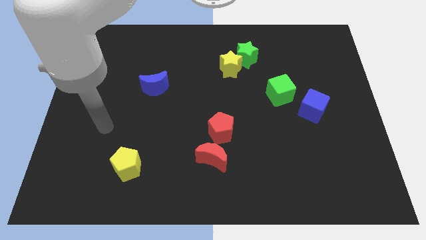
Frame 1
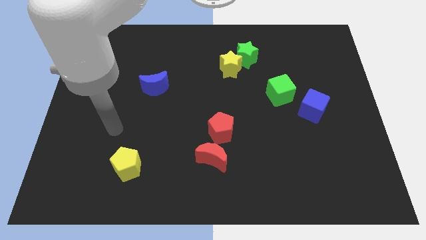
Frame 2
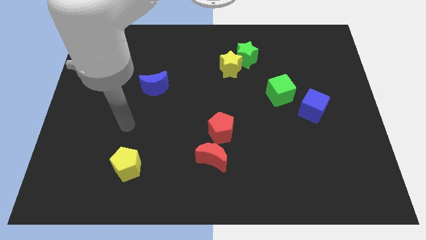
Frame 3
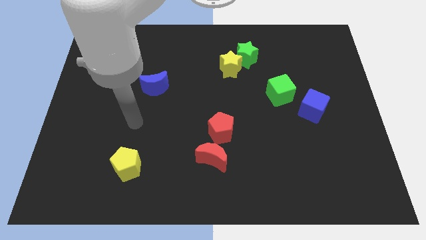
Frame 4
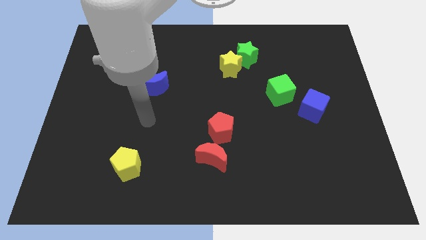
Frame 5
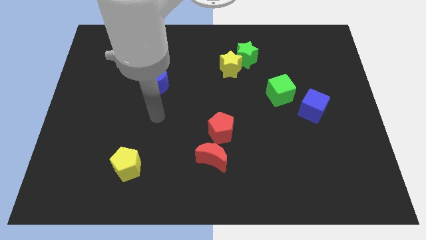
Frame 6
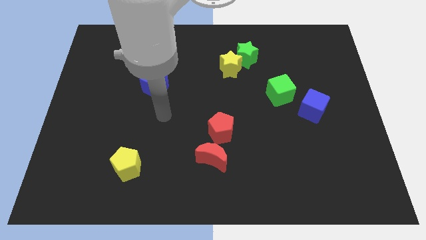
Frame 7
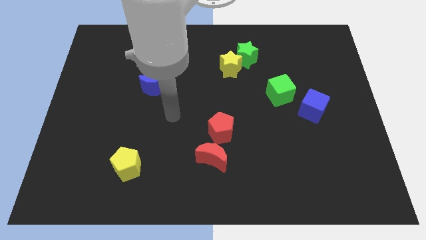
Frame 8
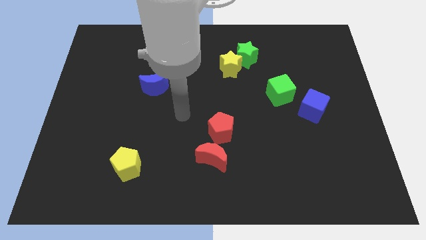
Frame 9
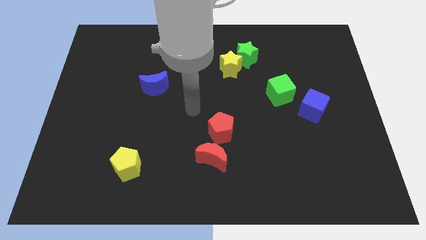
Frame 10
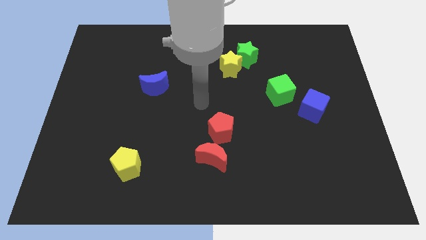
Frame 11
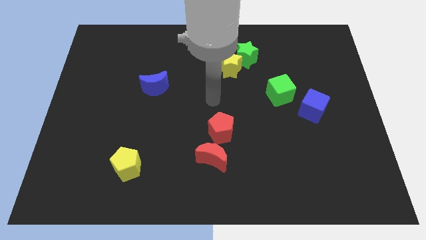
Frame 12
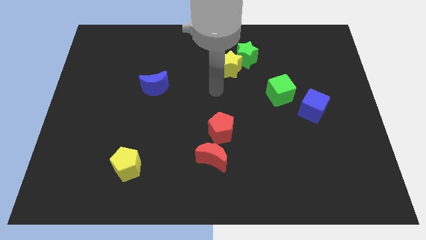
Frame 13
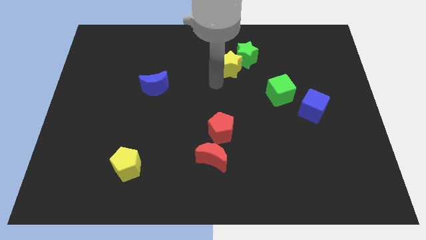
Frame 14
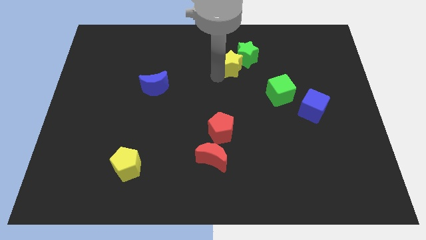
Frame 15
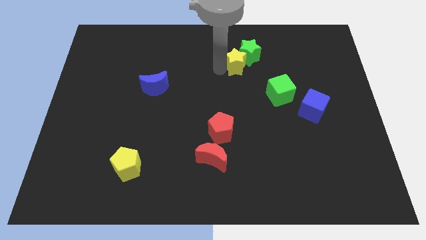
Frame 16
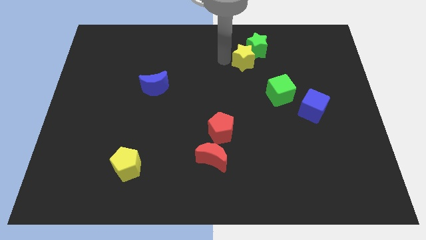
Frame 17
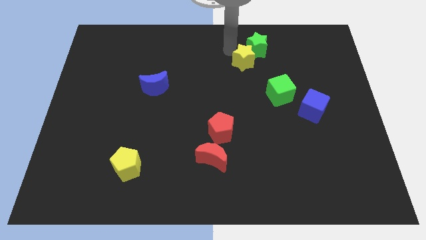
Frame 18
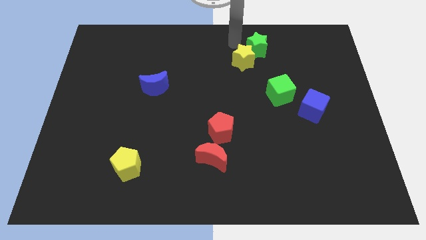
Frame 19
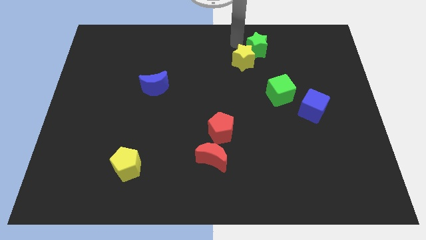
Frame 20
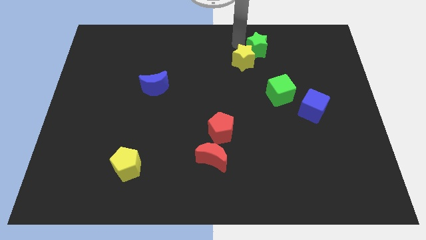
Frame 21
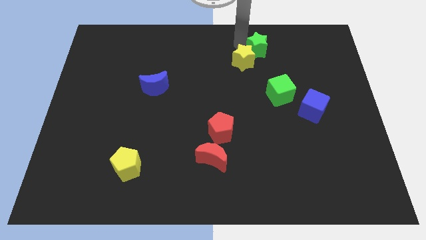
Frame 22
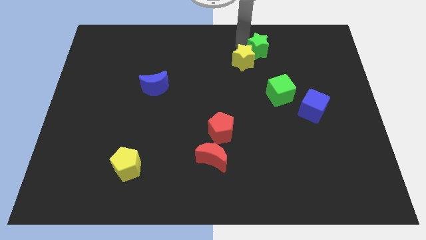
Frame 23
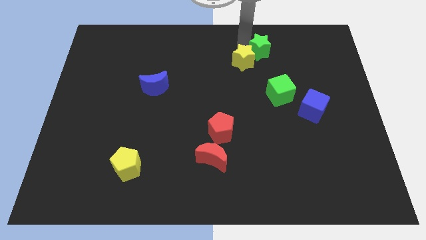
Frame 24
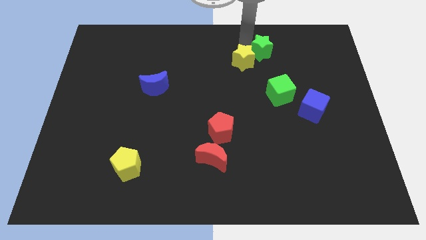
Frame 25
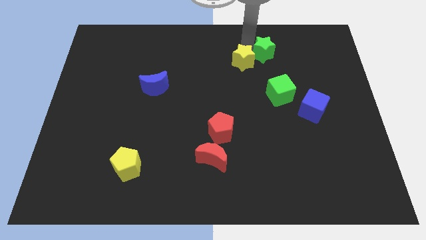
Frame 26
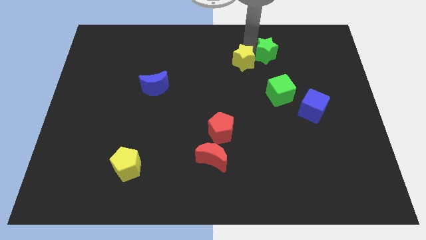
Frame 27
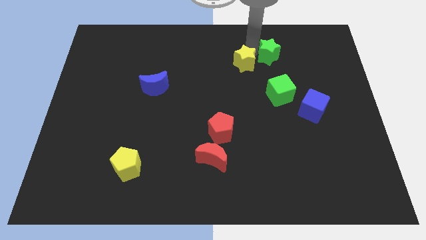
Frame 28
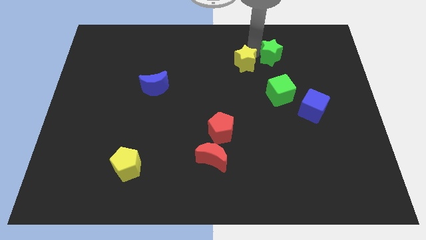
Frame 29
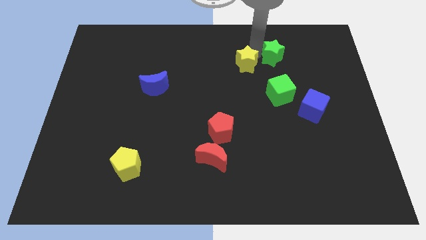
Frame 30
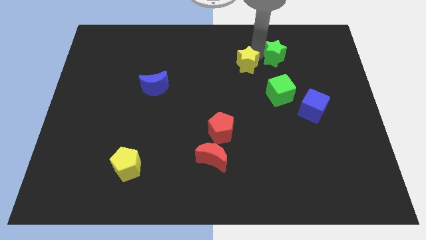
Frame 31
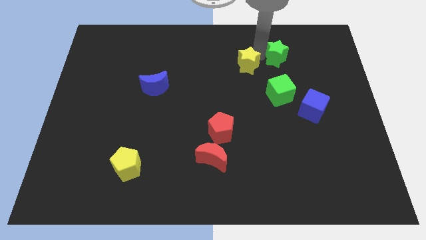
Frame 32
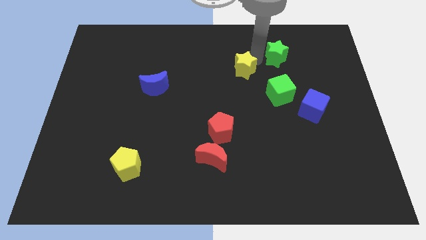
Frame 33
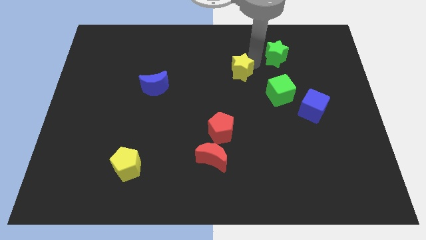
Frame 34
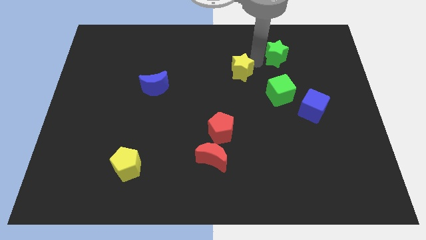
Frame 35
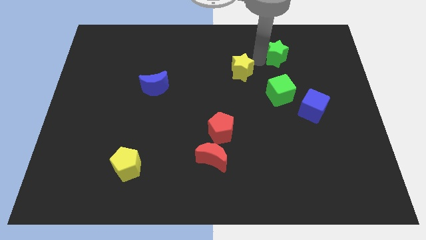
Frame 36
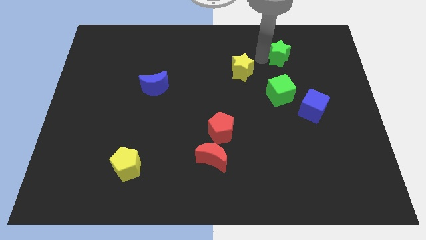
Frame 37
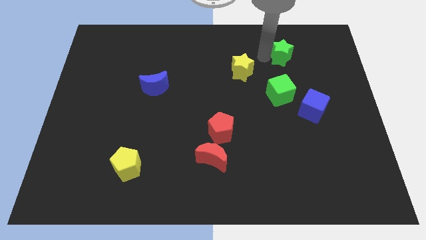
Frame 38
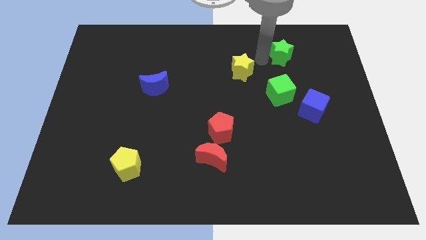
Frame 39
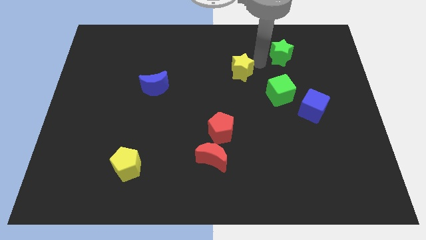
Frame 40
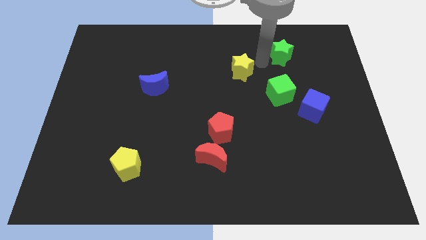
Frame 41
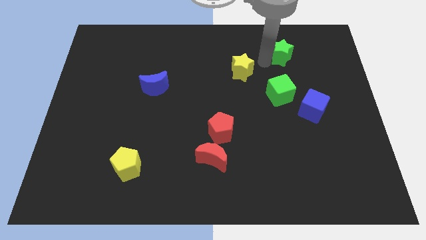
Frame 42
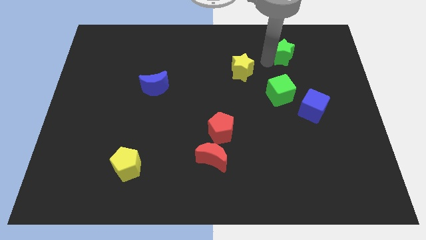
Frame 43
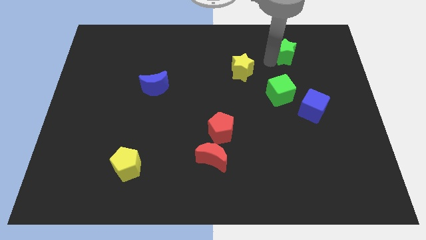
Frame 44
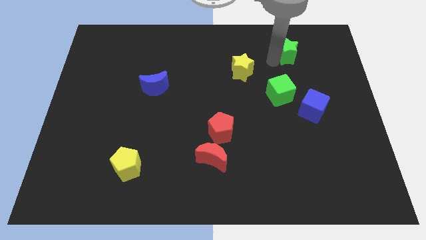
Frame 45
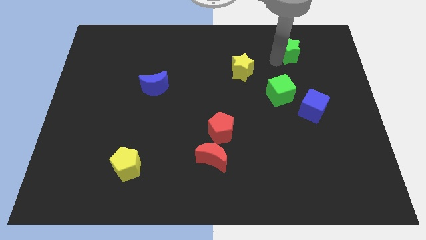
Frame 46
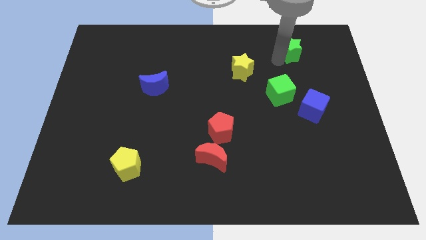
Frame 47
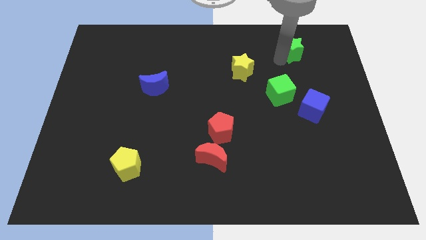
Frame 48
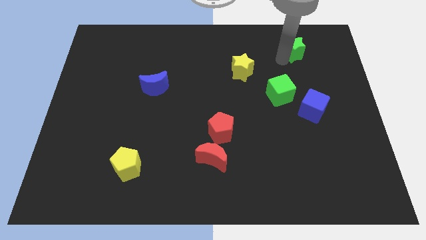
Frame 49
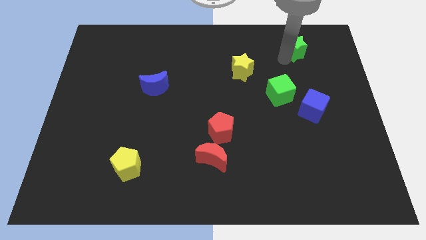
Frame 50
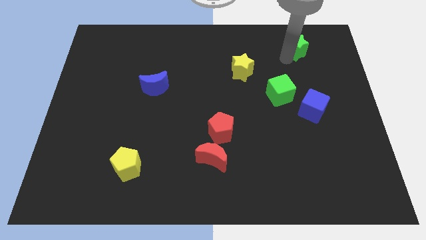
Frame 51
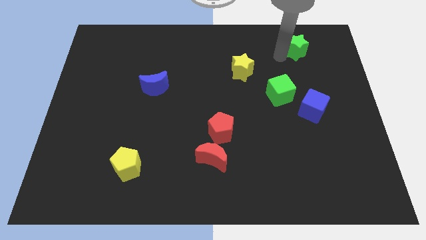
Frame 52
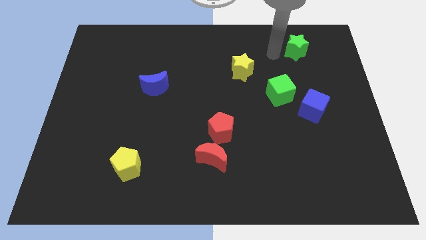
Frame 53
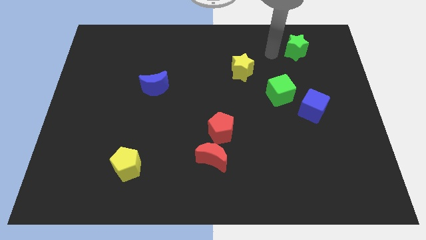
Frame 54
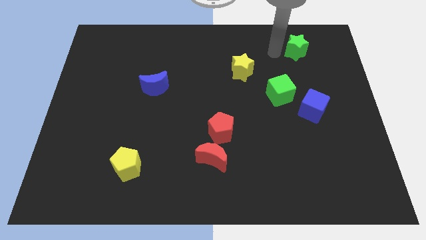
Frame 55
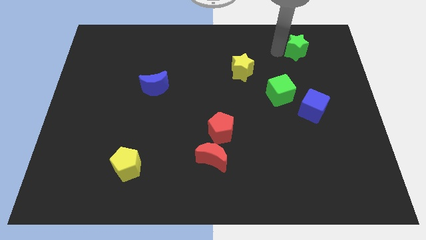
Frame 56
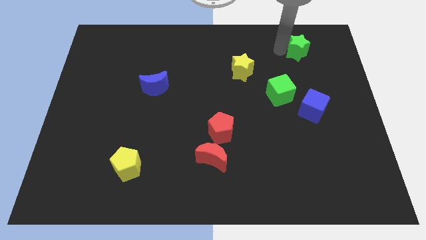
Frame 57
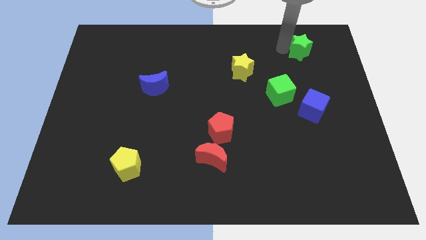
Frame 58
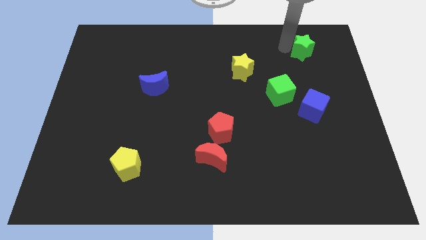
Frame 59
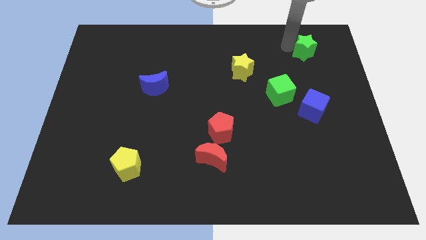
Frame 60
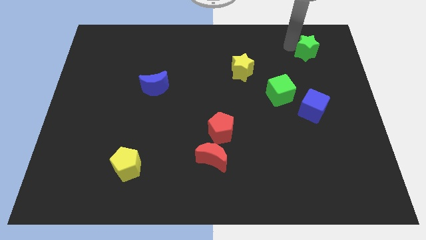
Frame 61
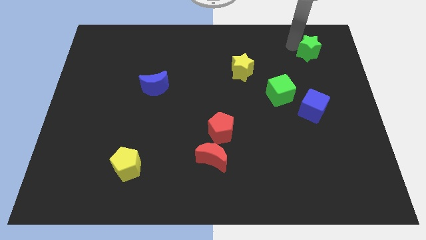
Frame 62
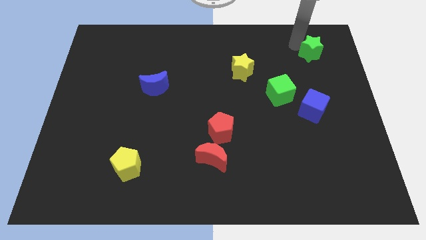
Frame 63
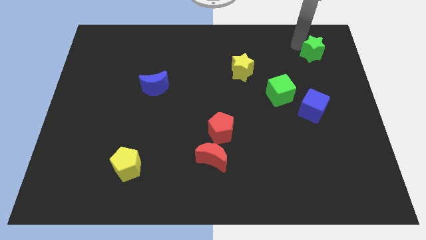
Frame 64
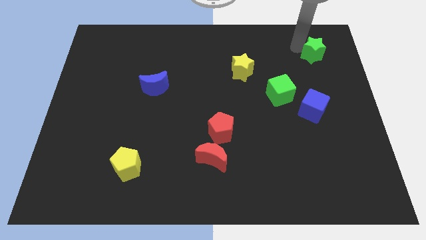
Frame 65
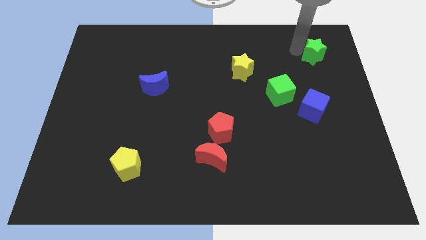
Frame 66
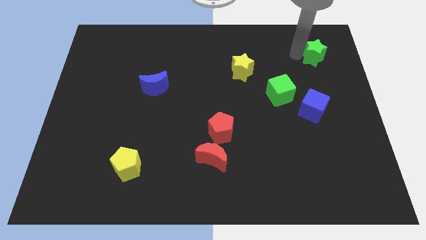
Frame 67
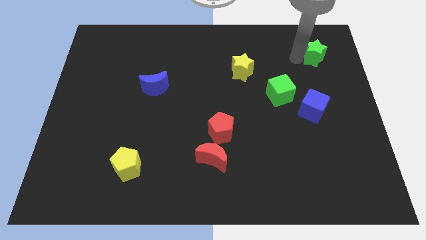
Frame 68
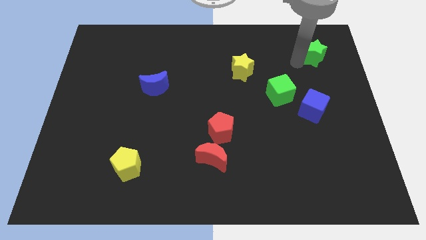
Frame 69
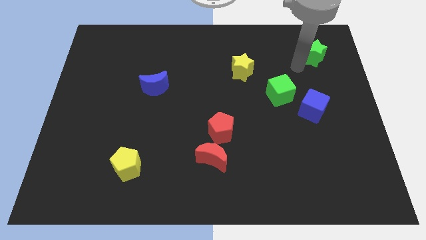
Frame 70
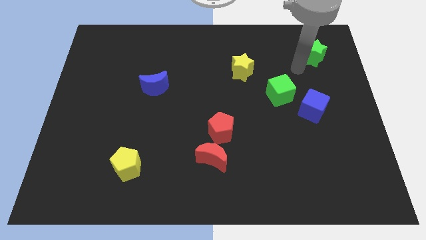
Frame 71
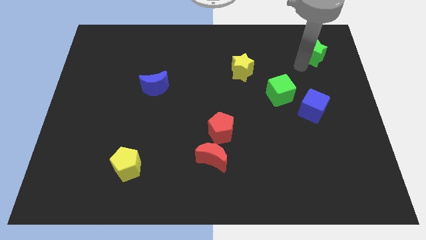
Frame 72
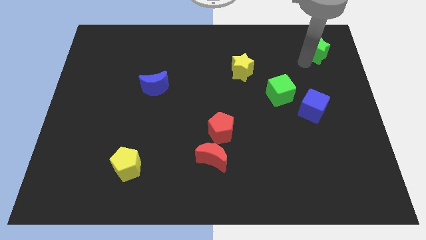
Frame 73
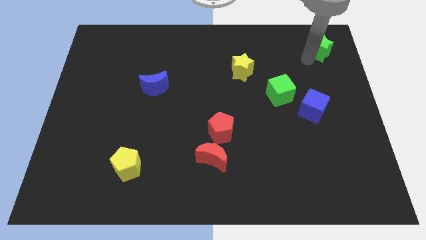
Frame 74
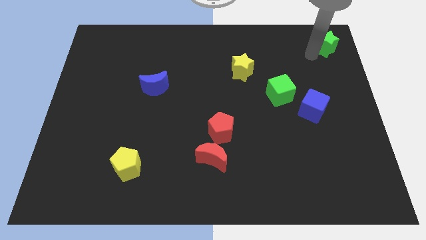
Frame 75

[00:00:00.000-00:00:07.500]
put the green star to the top right of the board
